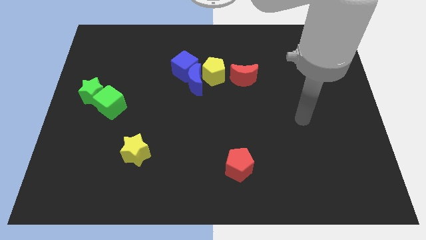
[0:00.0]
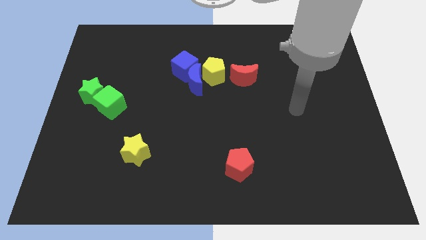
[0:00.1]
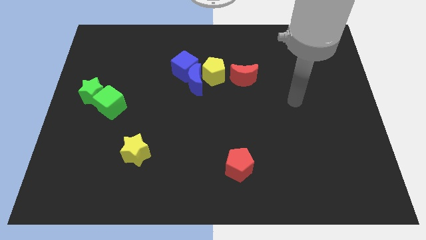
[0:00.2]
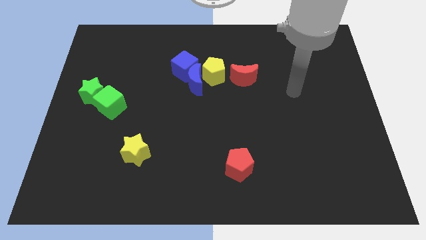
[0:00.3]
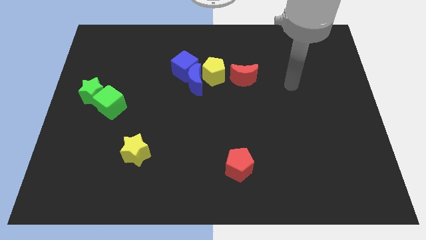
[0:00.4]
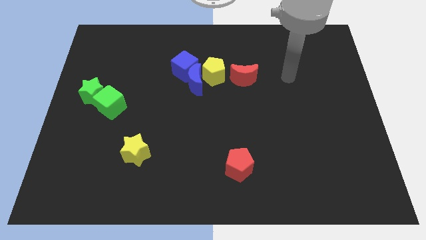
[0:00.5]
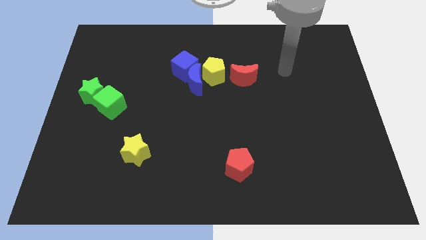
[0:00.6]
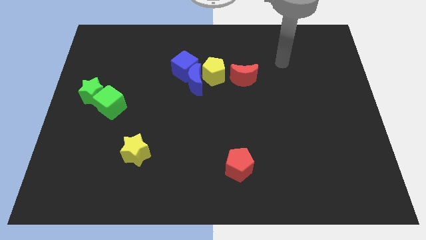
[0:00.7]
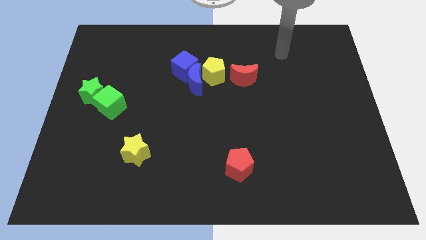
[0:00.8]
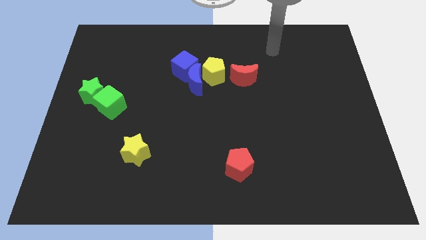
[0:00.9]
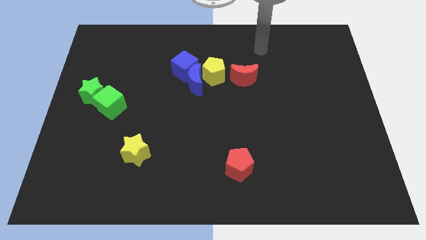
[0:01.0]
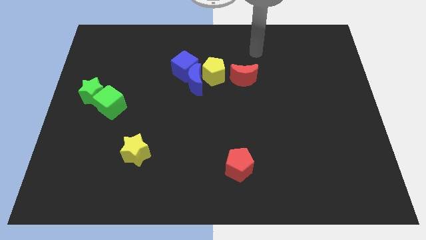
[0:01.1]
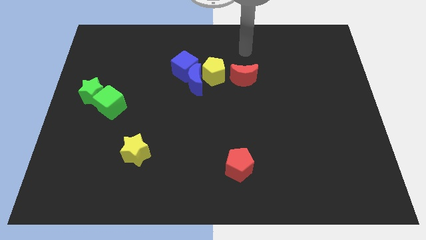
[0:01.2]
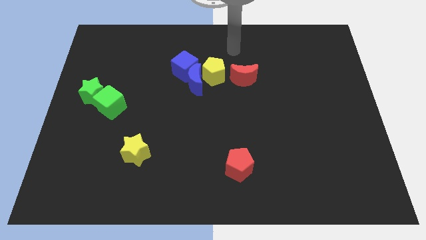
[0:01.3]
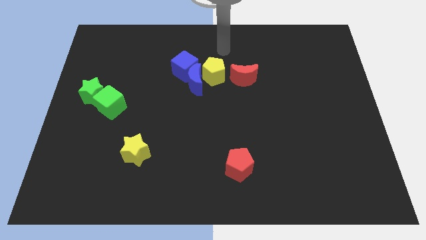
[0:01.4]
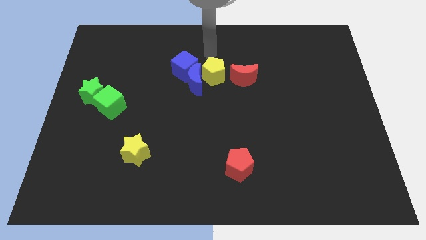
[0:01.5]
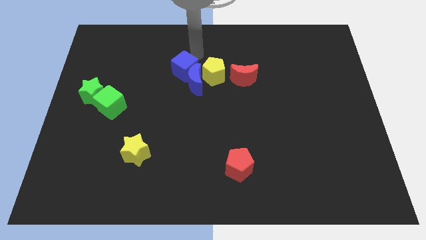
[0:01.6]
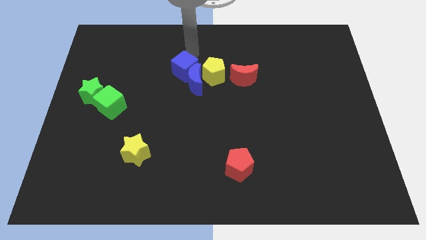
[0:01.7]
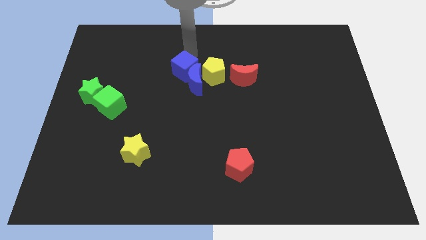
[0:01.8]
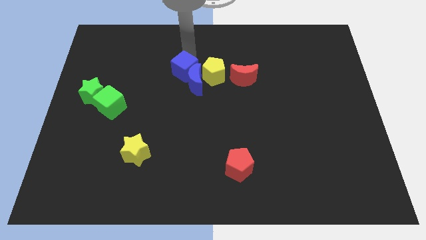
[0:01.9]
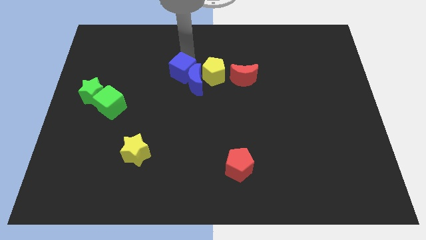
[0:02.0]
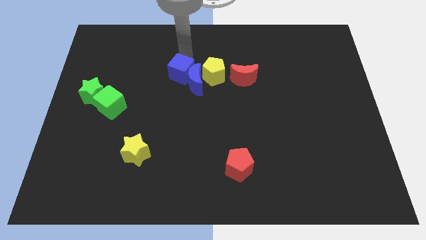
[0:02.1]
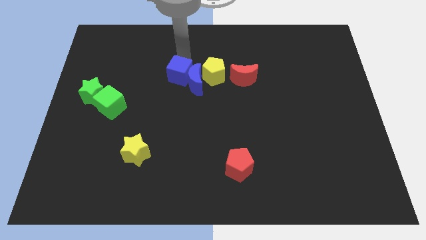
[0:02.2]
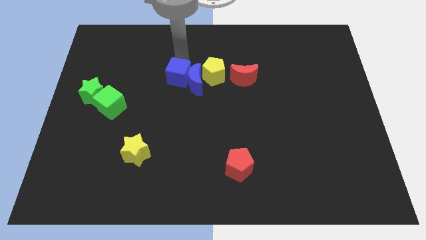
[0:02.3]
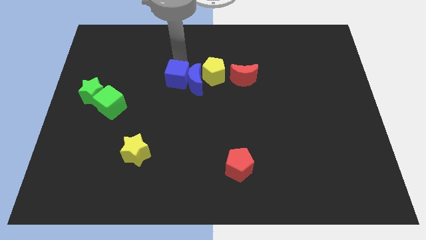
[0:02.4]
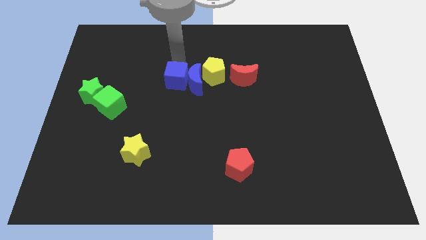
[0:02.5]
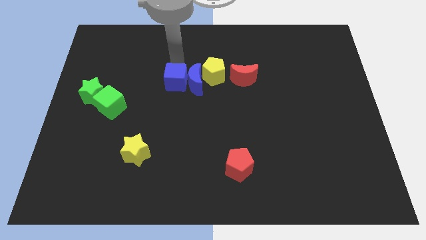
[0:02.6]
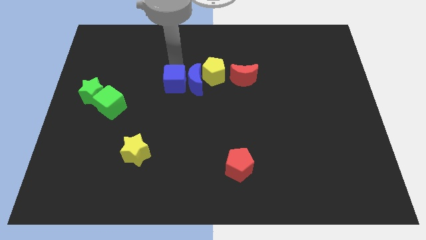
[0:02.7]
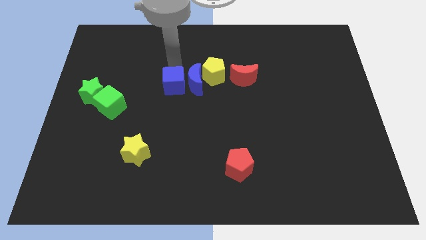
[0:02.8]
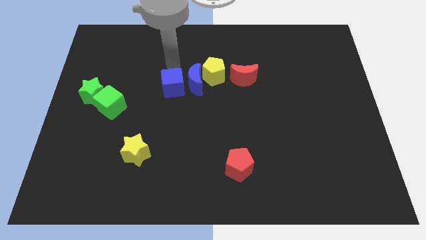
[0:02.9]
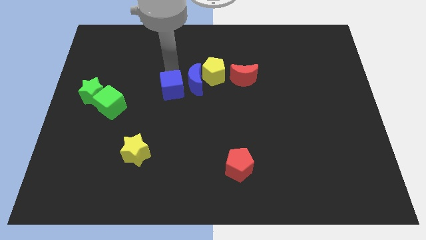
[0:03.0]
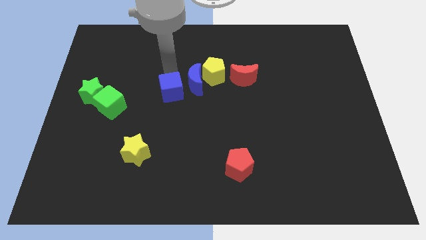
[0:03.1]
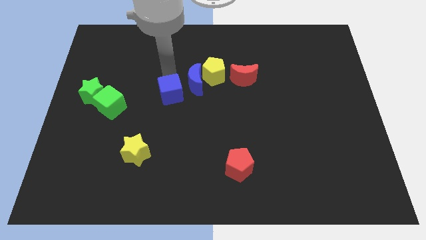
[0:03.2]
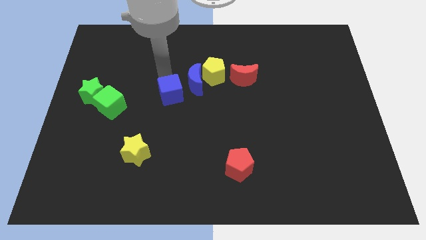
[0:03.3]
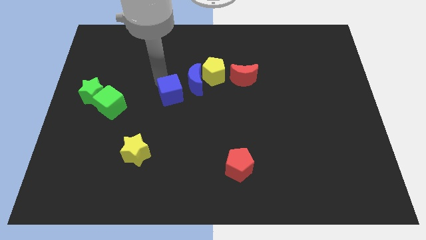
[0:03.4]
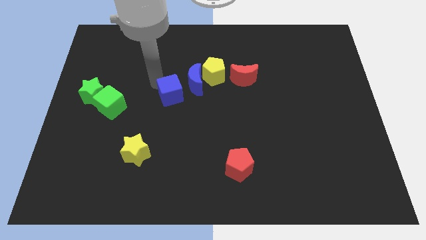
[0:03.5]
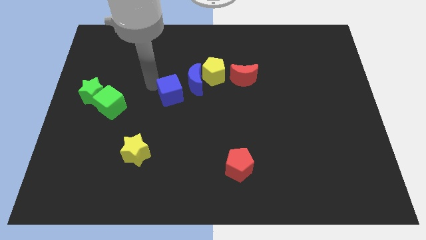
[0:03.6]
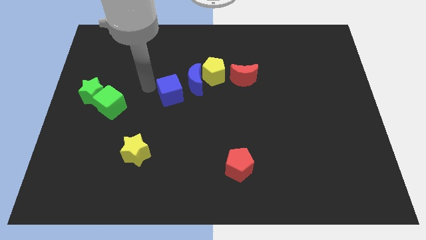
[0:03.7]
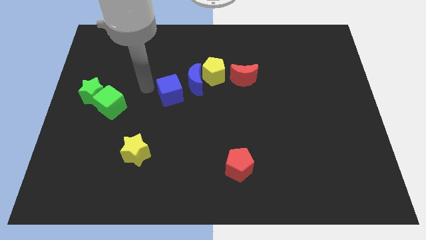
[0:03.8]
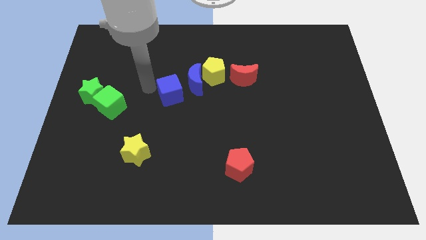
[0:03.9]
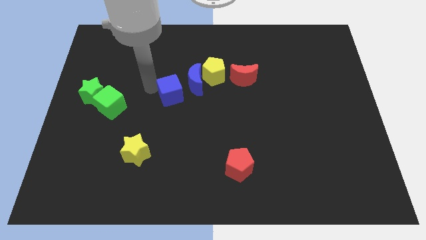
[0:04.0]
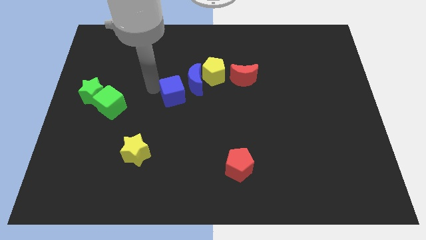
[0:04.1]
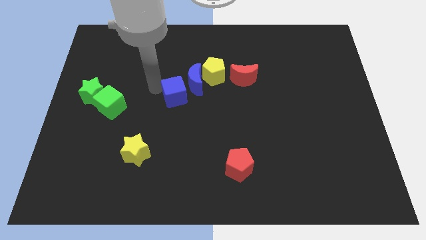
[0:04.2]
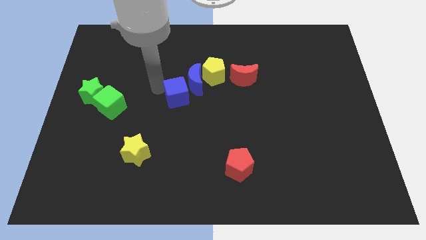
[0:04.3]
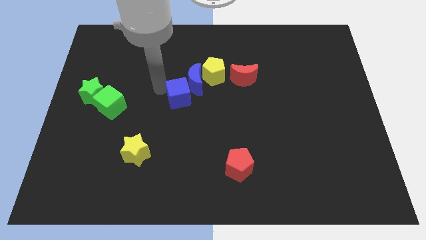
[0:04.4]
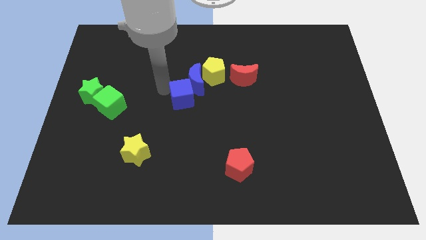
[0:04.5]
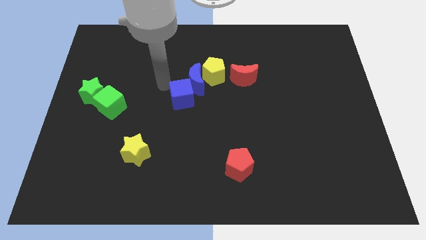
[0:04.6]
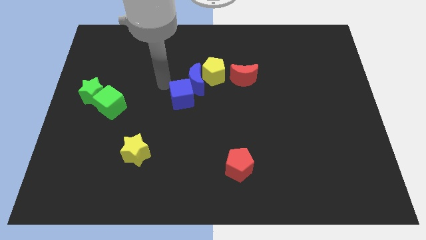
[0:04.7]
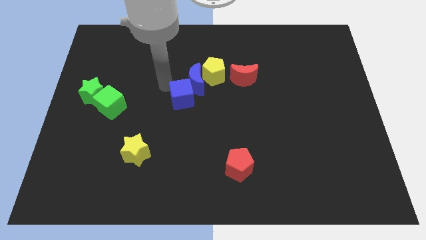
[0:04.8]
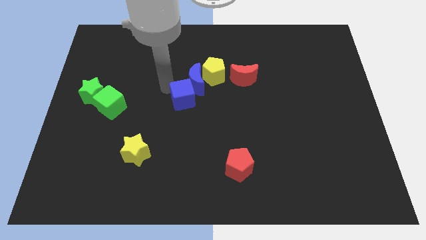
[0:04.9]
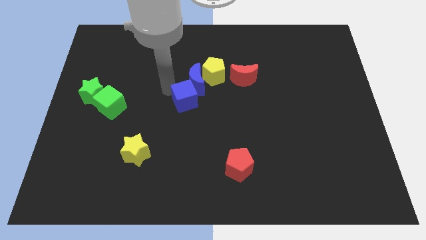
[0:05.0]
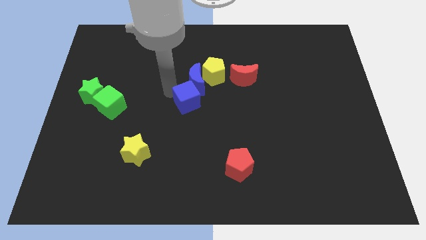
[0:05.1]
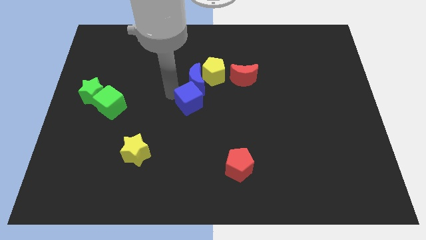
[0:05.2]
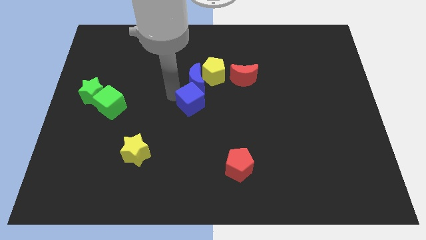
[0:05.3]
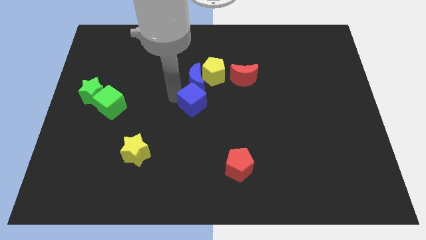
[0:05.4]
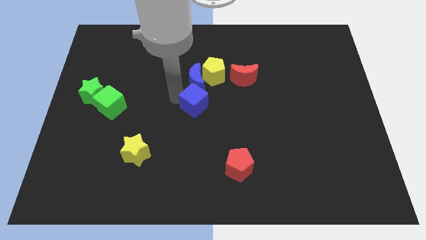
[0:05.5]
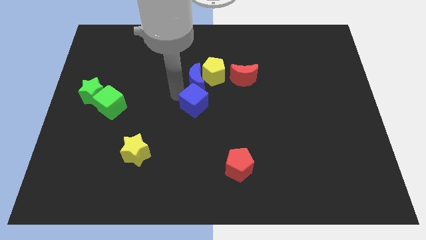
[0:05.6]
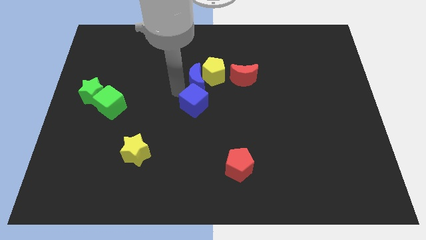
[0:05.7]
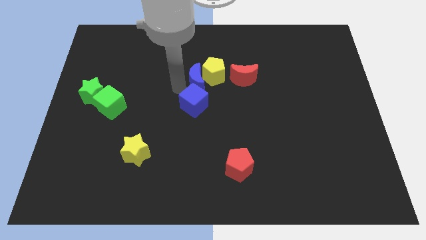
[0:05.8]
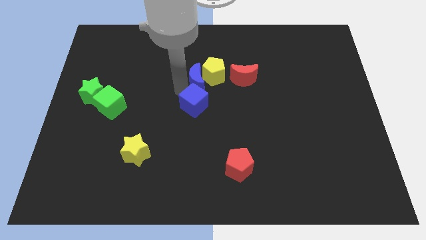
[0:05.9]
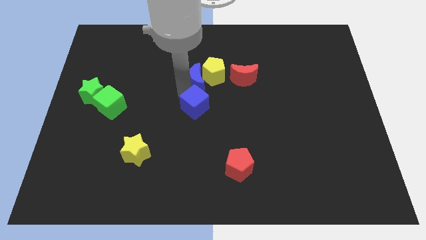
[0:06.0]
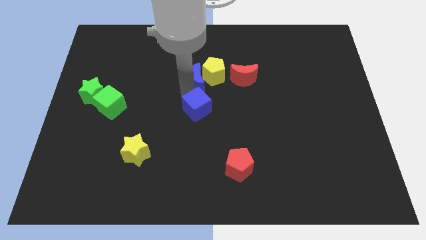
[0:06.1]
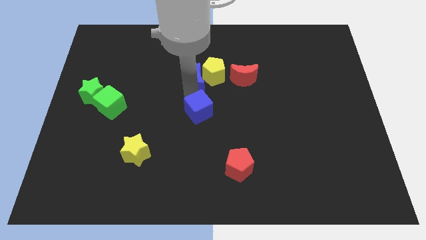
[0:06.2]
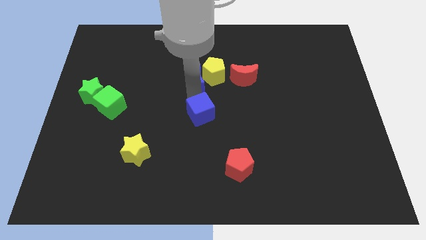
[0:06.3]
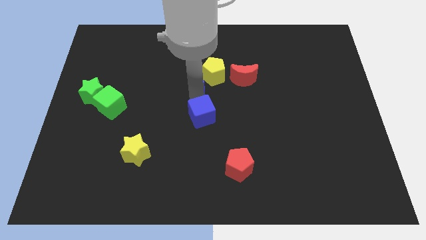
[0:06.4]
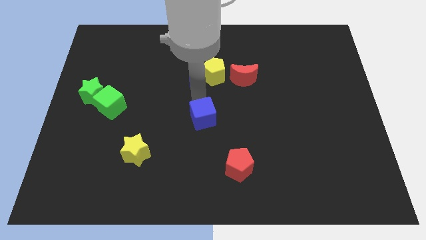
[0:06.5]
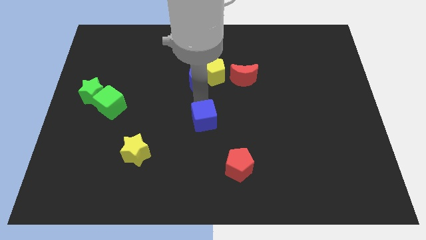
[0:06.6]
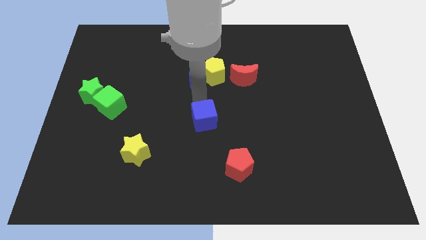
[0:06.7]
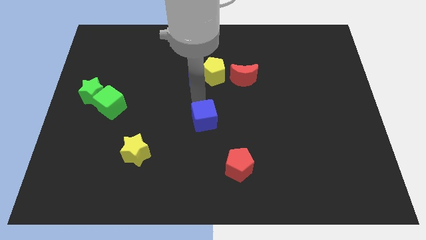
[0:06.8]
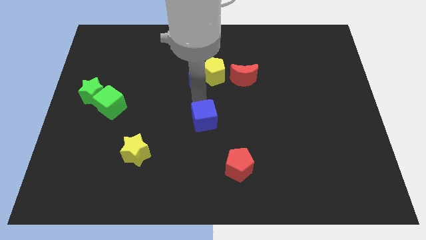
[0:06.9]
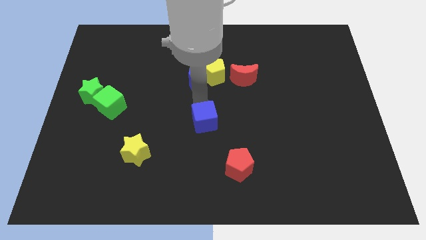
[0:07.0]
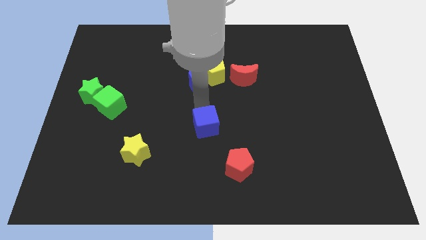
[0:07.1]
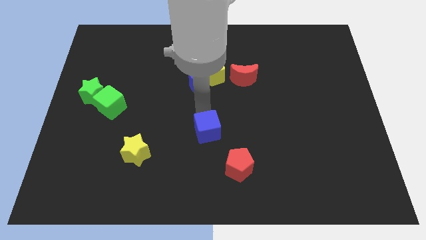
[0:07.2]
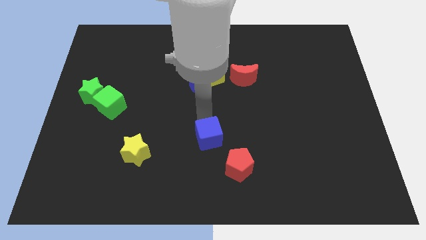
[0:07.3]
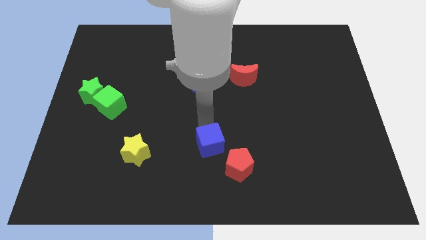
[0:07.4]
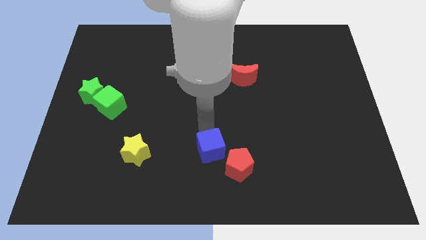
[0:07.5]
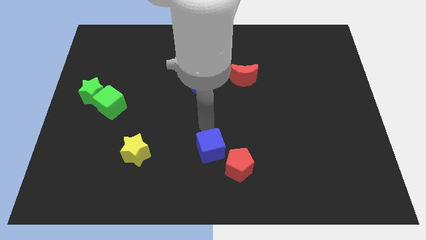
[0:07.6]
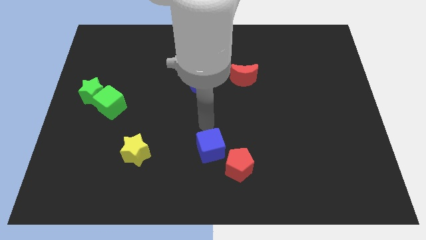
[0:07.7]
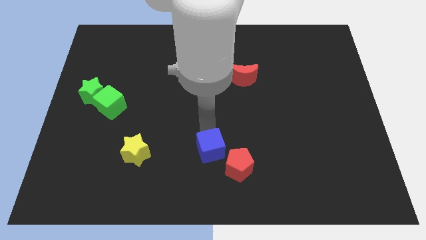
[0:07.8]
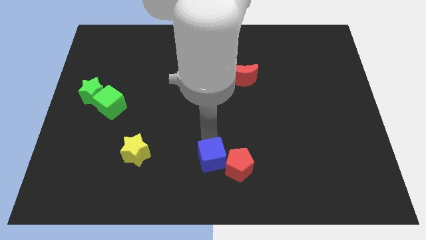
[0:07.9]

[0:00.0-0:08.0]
push the blue cube to the bottom
